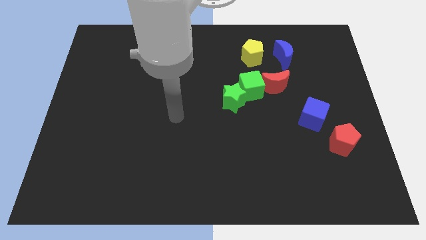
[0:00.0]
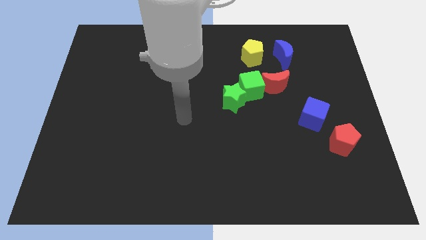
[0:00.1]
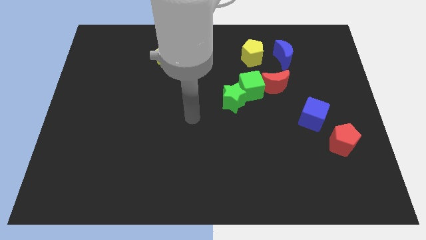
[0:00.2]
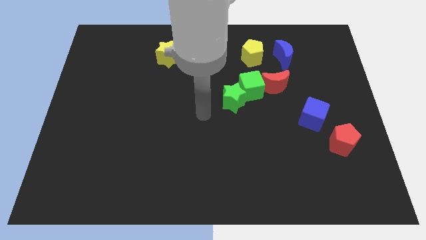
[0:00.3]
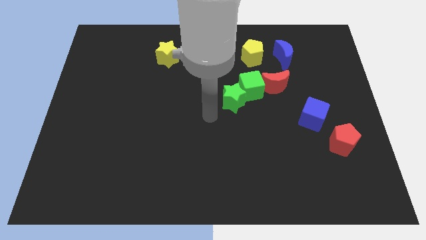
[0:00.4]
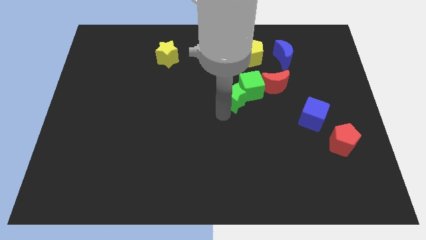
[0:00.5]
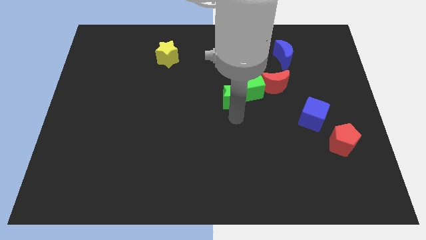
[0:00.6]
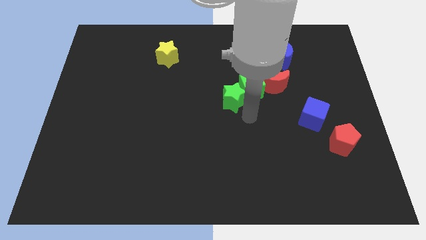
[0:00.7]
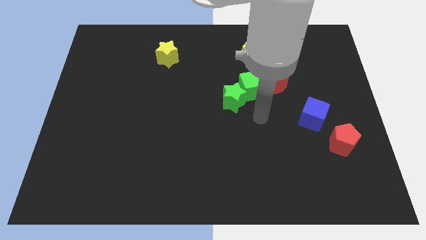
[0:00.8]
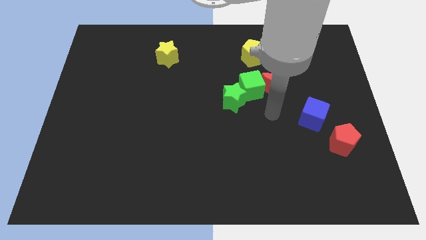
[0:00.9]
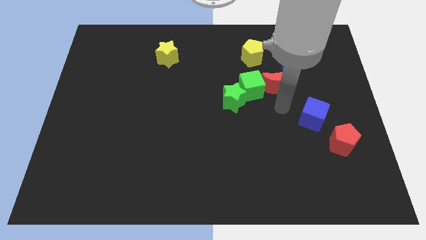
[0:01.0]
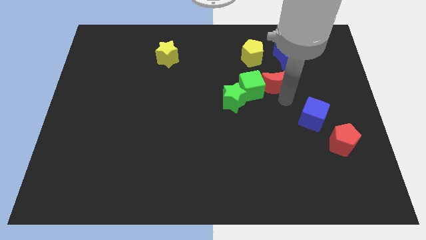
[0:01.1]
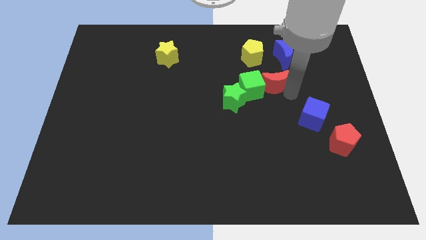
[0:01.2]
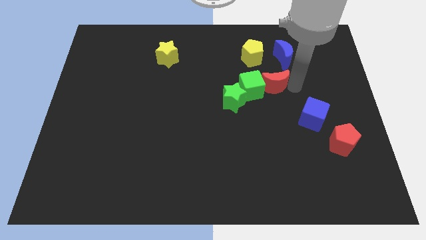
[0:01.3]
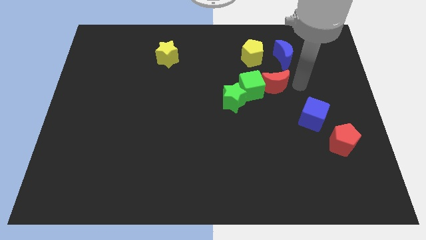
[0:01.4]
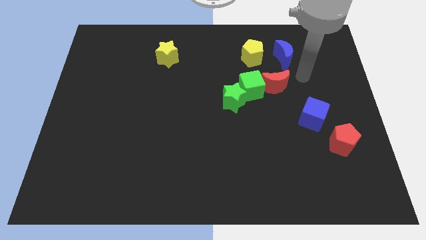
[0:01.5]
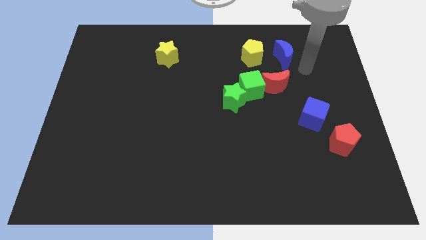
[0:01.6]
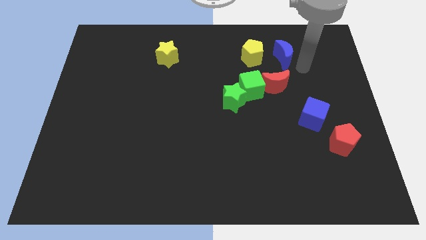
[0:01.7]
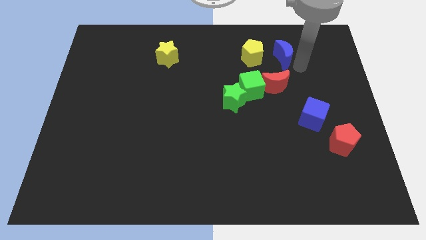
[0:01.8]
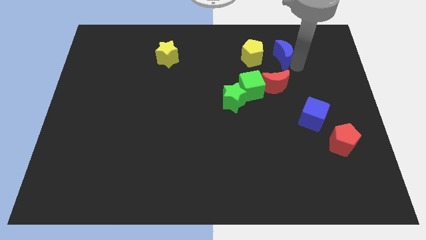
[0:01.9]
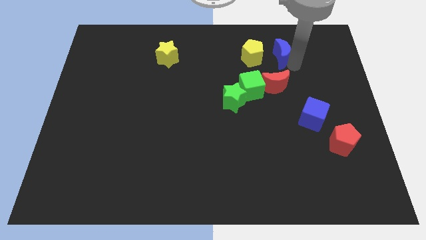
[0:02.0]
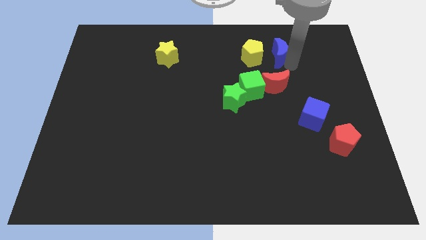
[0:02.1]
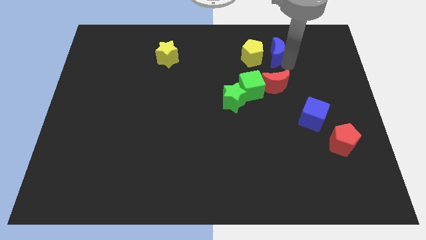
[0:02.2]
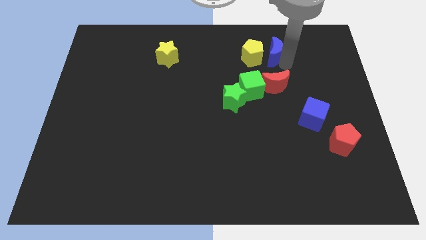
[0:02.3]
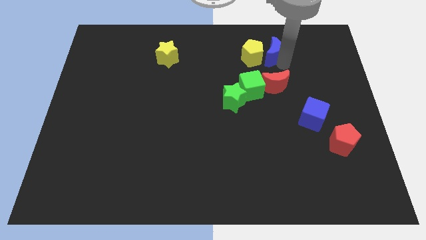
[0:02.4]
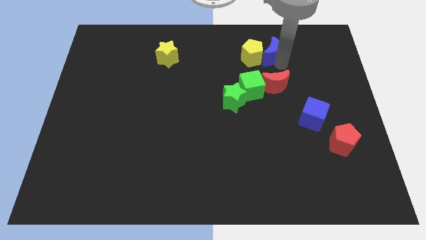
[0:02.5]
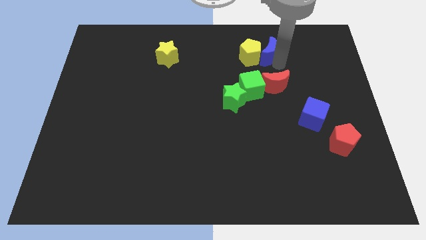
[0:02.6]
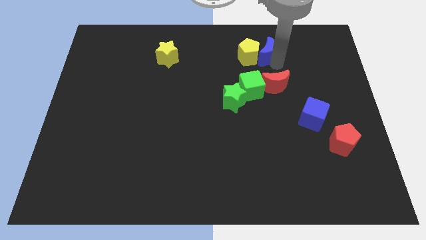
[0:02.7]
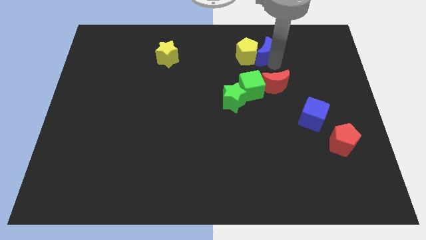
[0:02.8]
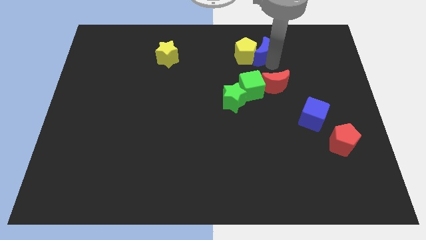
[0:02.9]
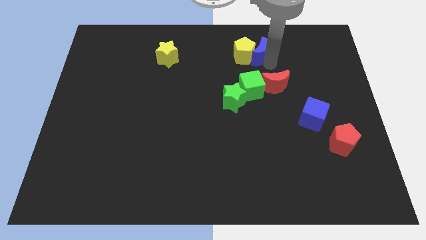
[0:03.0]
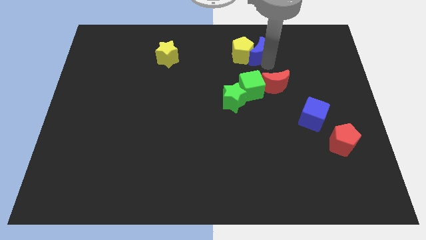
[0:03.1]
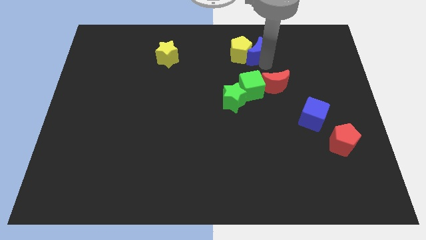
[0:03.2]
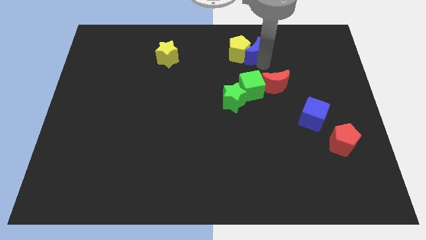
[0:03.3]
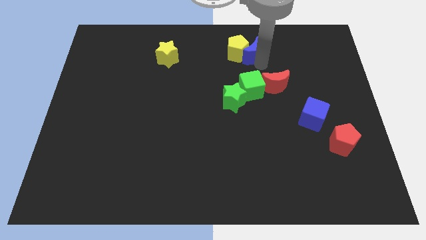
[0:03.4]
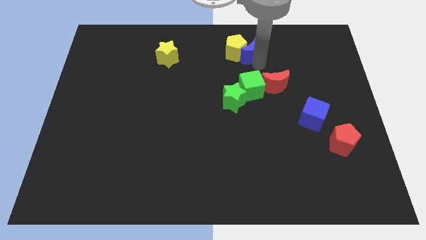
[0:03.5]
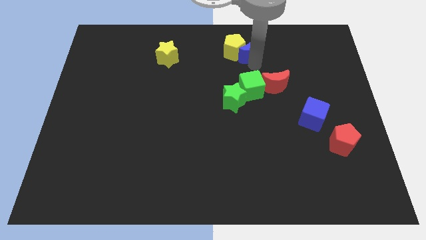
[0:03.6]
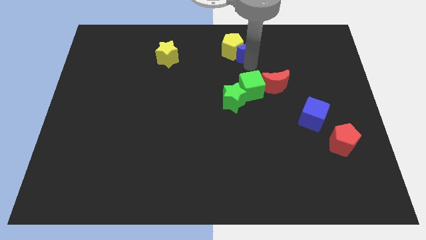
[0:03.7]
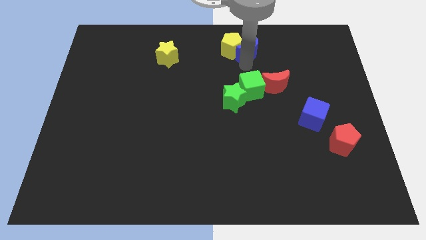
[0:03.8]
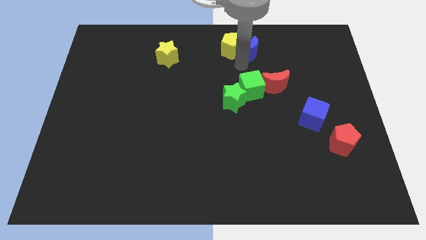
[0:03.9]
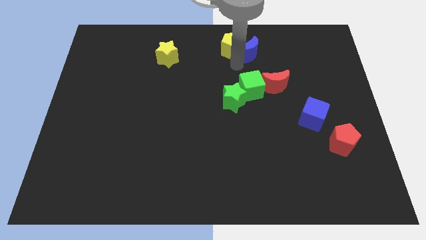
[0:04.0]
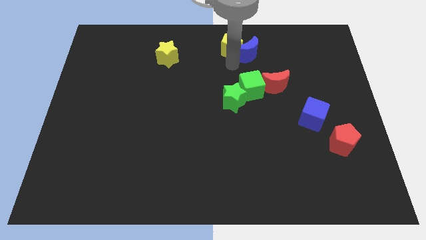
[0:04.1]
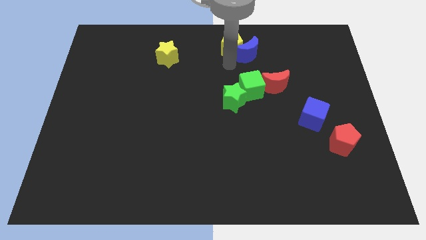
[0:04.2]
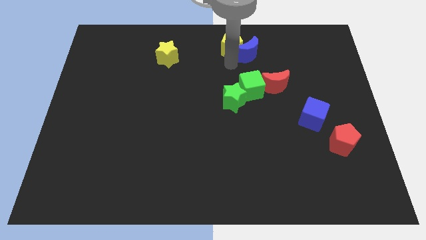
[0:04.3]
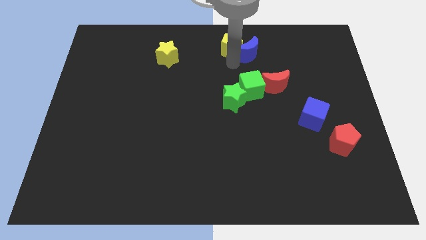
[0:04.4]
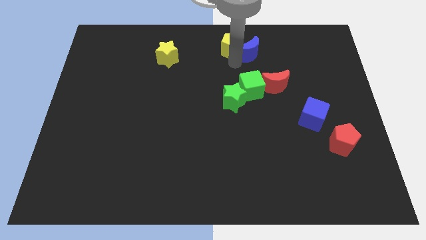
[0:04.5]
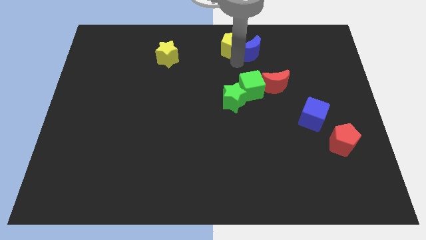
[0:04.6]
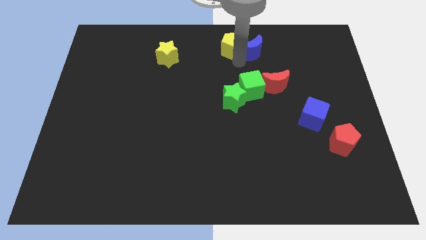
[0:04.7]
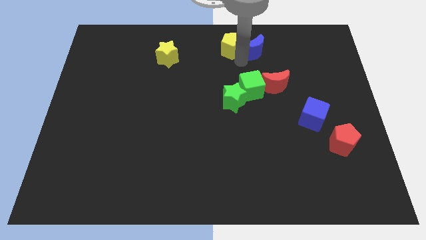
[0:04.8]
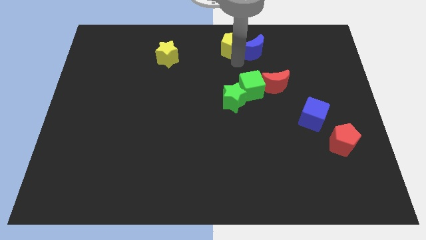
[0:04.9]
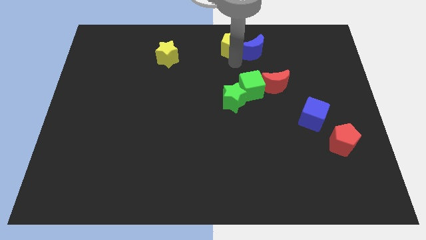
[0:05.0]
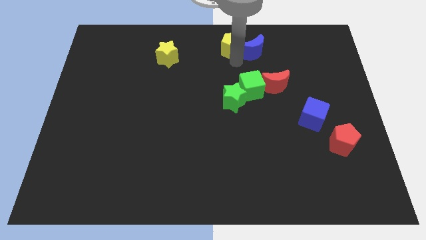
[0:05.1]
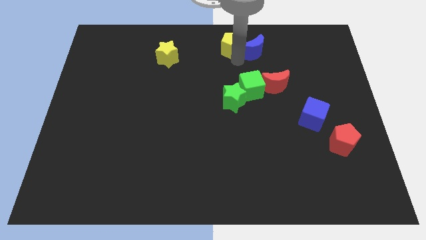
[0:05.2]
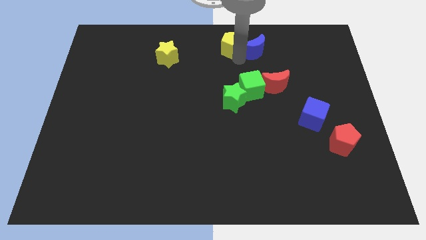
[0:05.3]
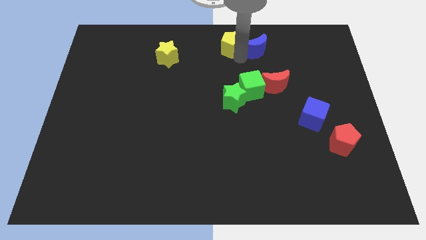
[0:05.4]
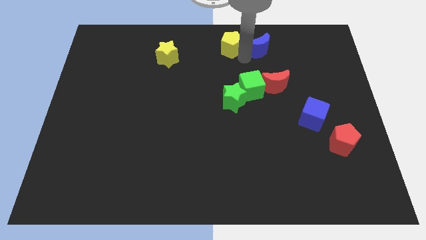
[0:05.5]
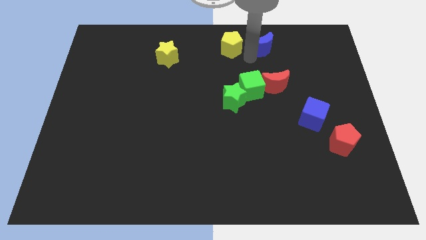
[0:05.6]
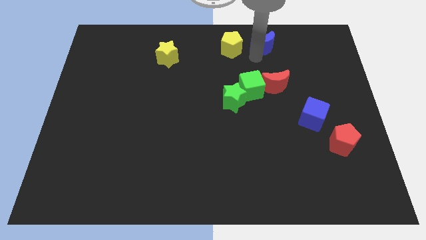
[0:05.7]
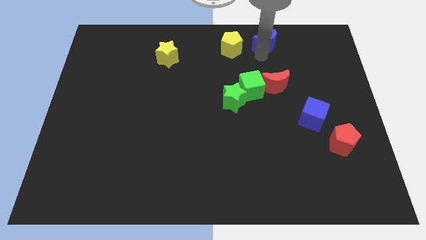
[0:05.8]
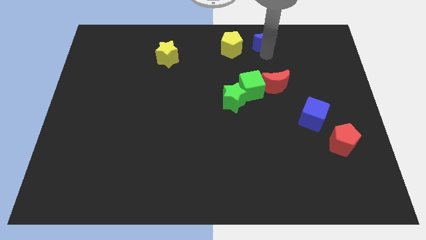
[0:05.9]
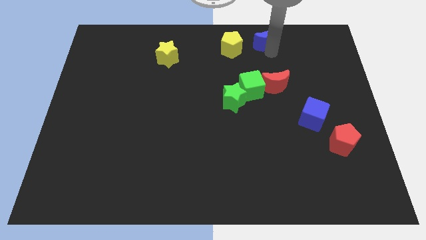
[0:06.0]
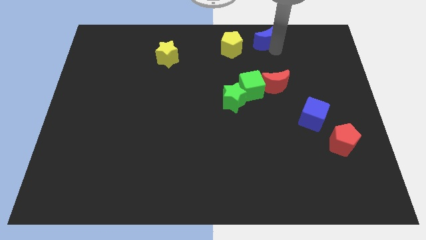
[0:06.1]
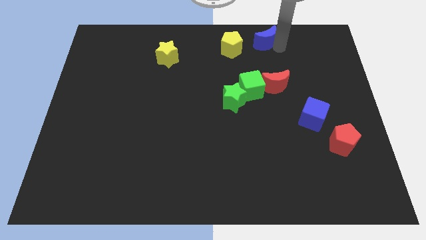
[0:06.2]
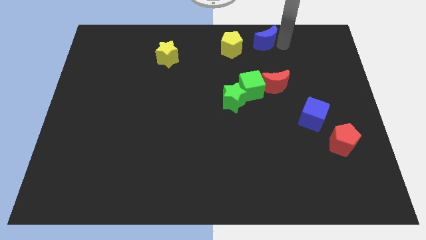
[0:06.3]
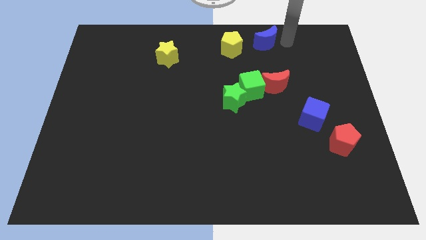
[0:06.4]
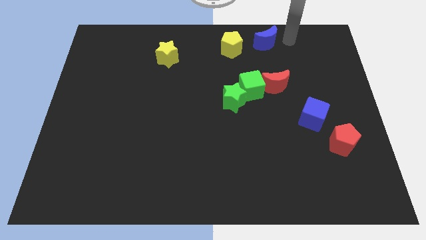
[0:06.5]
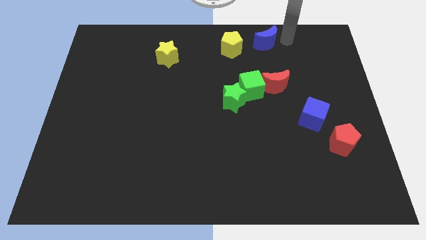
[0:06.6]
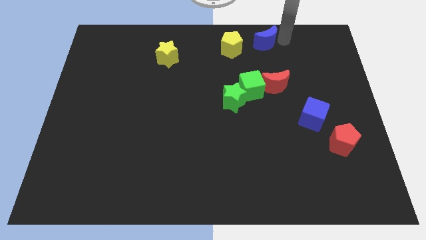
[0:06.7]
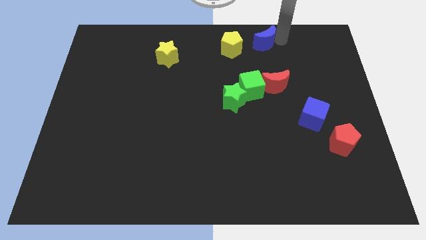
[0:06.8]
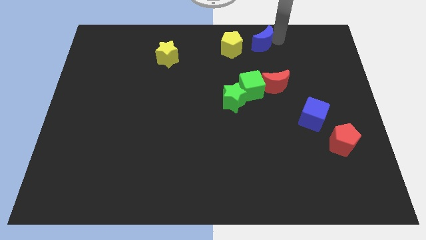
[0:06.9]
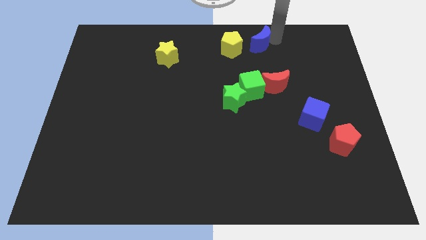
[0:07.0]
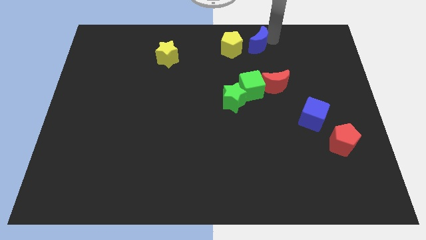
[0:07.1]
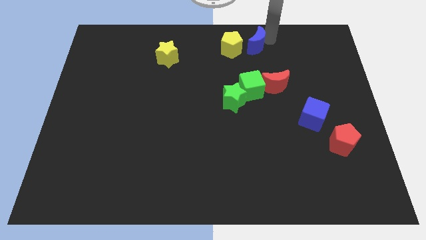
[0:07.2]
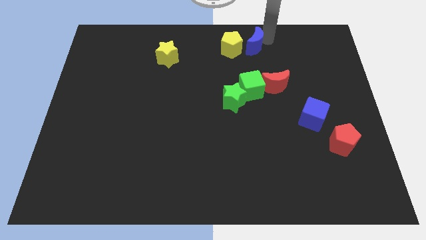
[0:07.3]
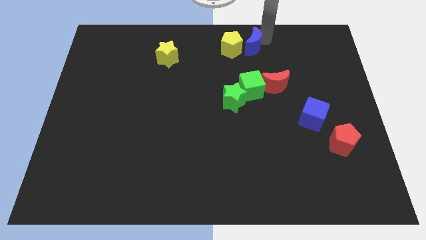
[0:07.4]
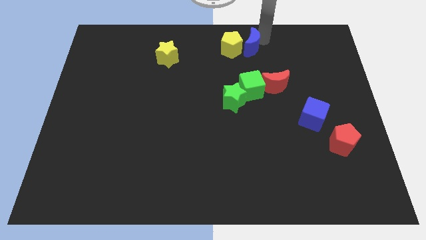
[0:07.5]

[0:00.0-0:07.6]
push the blue moon to the towards your base
